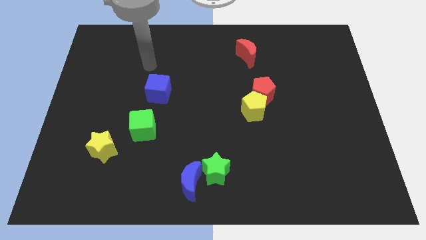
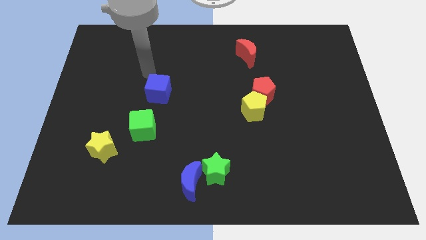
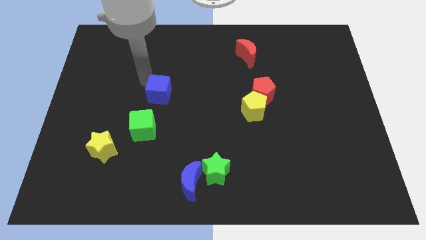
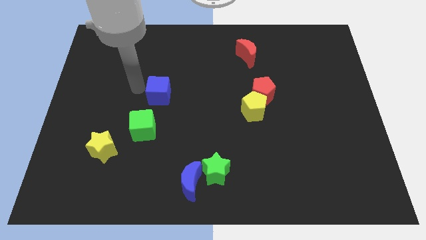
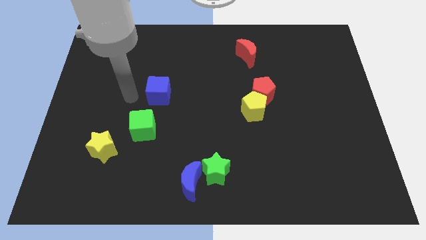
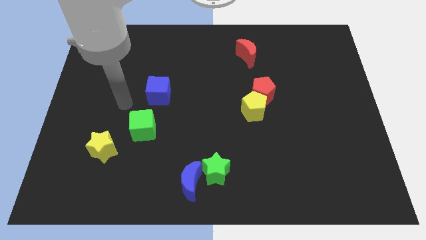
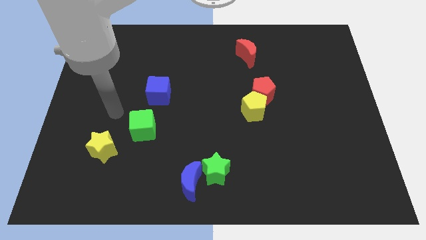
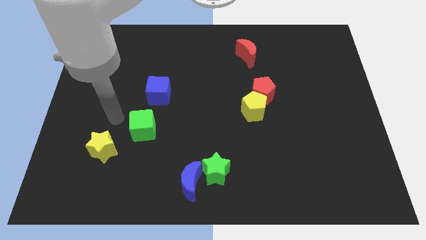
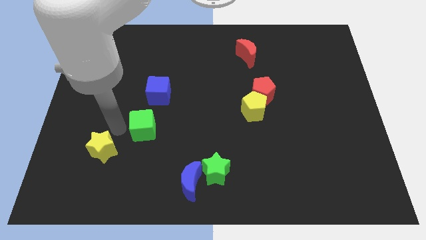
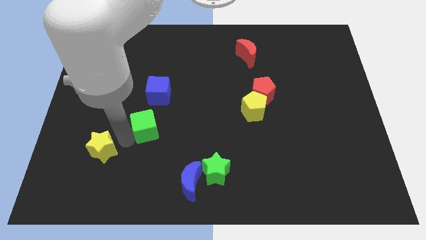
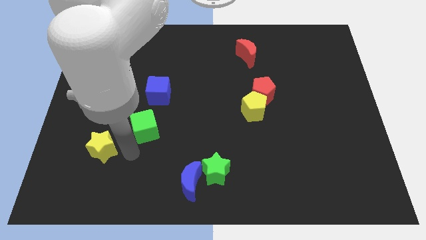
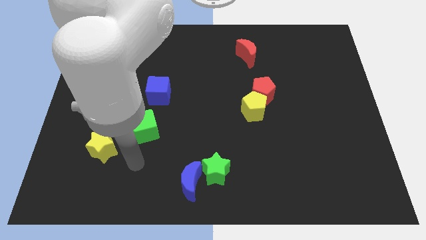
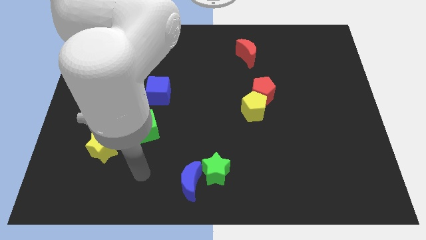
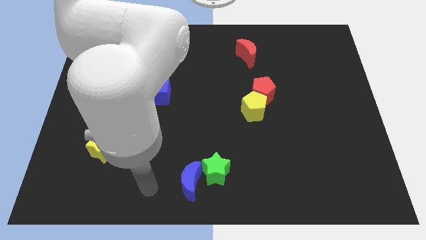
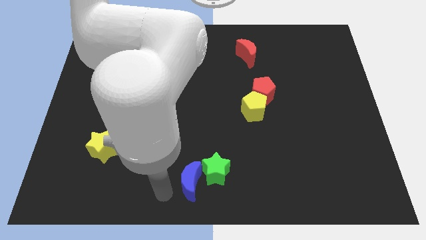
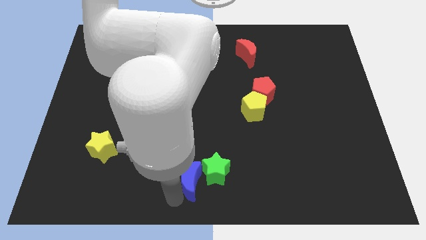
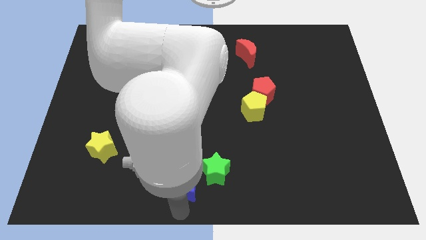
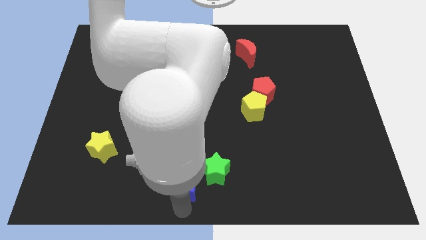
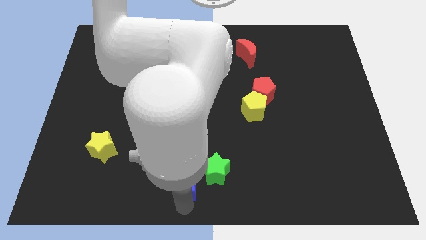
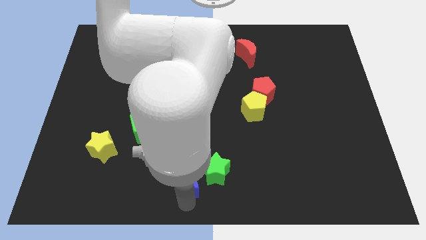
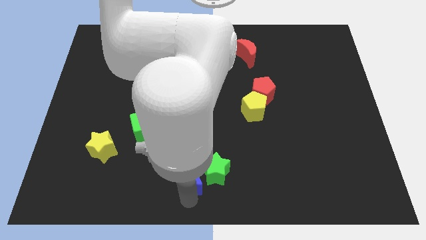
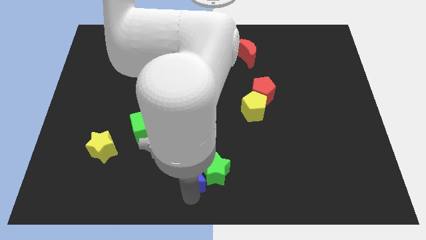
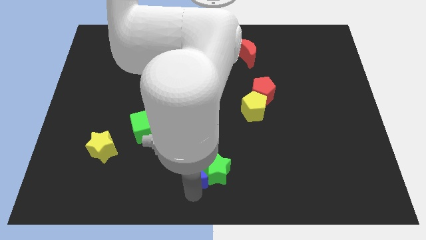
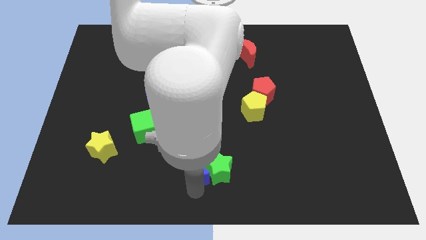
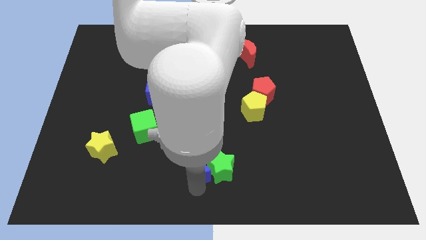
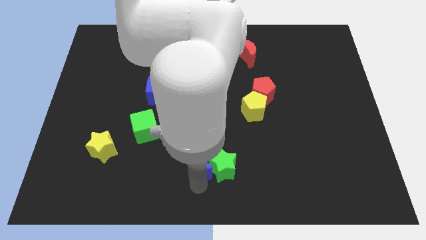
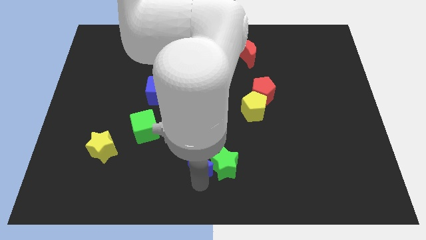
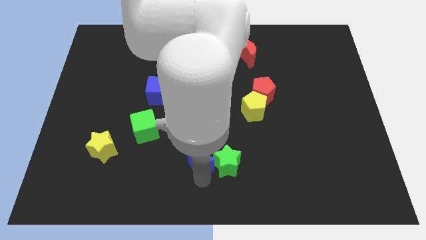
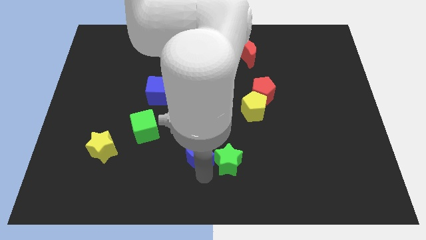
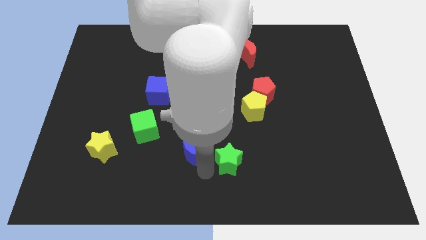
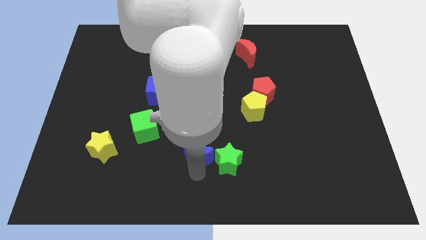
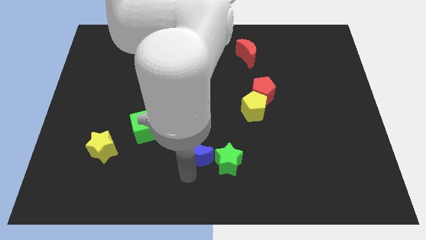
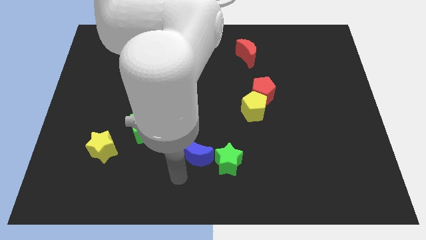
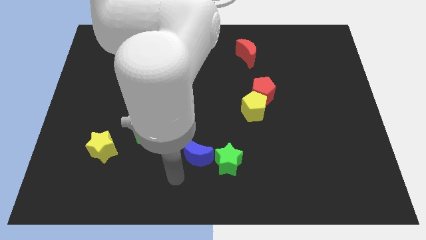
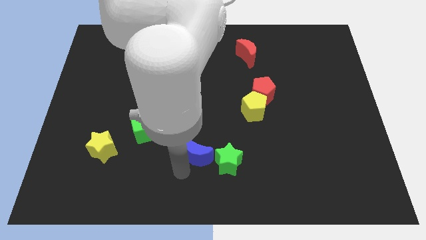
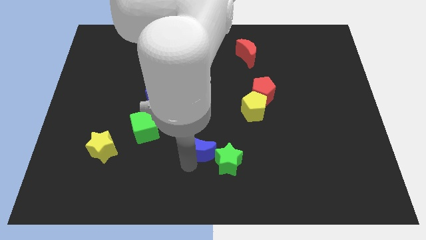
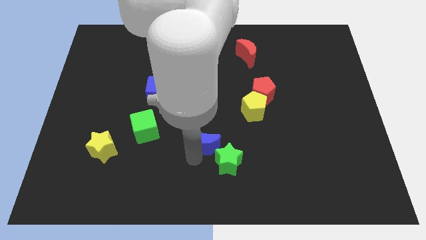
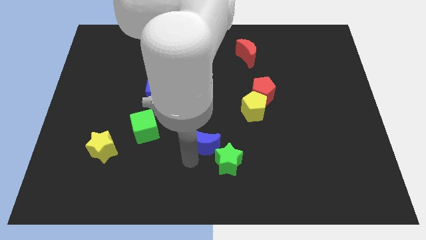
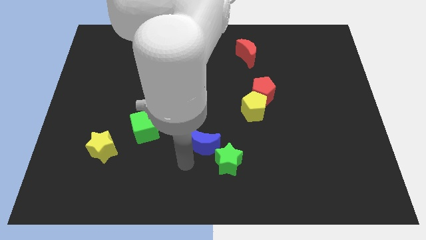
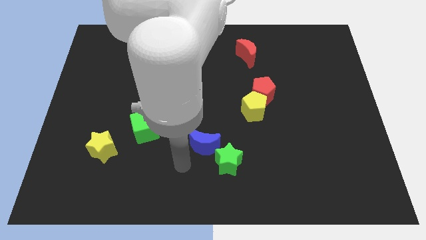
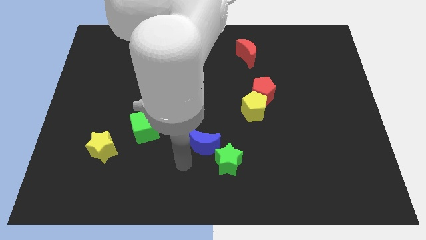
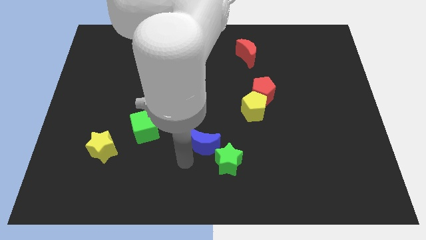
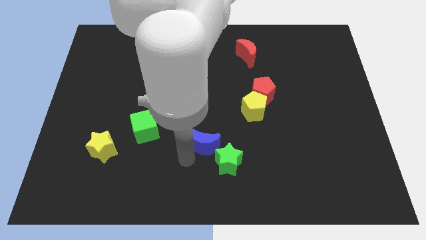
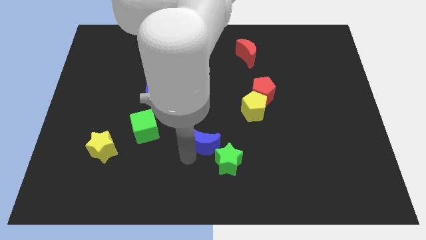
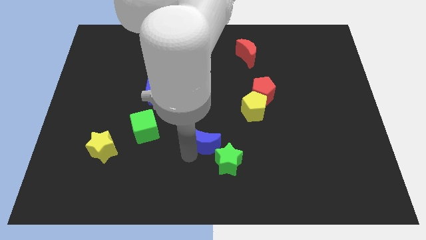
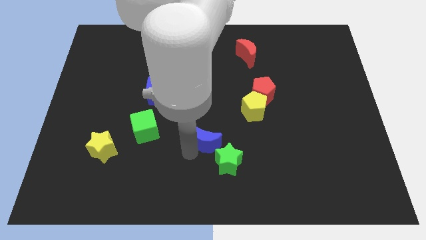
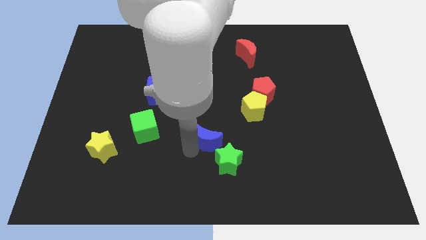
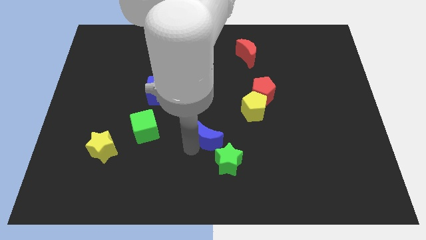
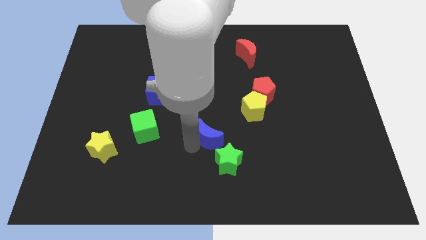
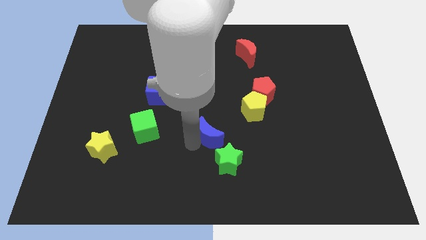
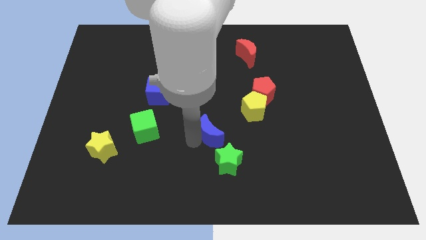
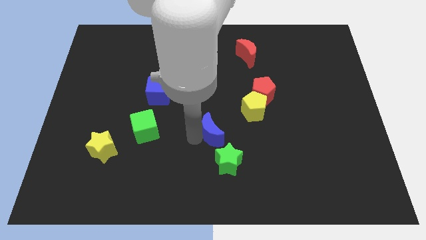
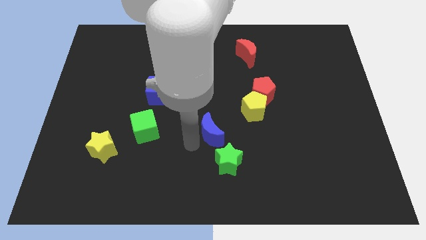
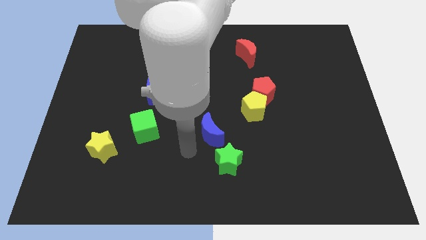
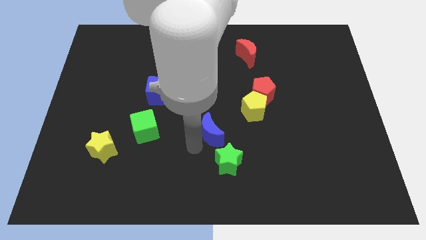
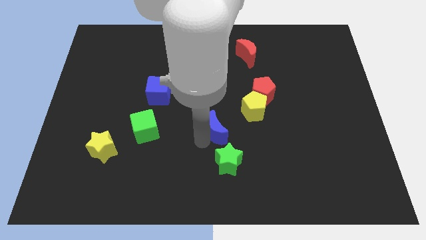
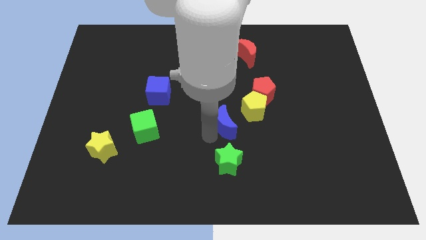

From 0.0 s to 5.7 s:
slide the blue moon to the bottom left side of the red pentagon
